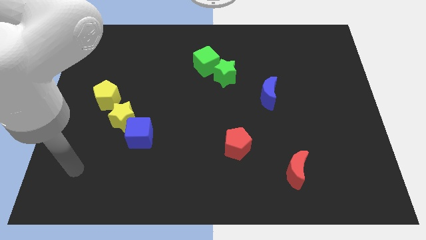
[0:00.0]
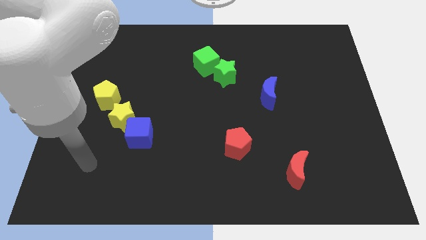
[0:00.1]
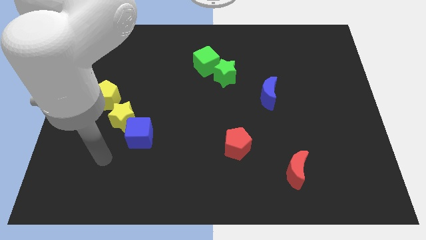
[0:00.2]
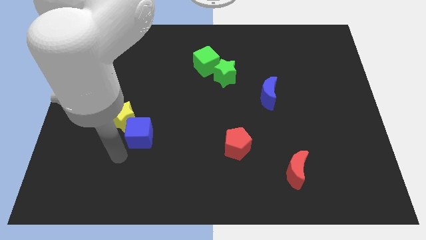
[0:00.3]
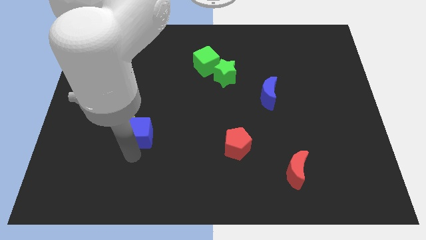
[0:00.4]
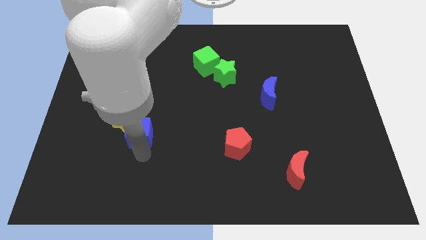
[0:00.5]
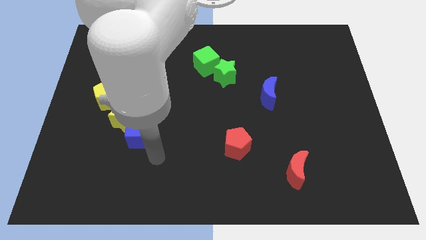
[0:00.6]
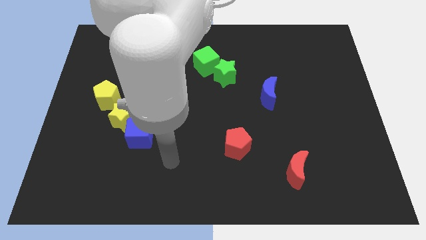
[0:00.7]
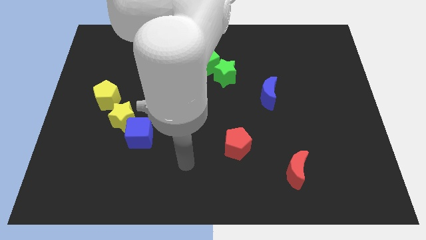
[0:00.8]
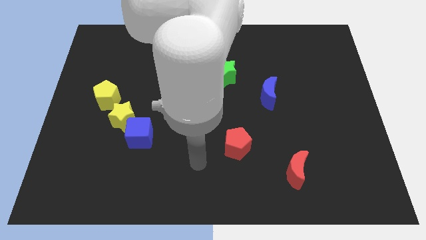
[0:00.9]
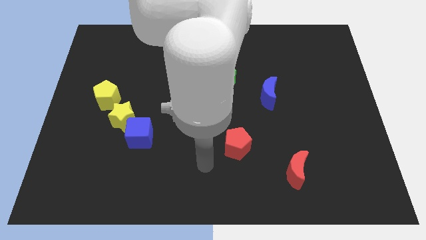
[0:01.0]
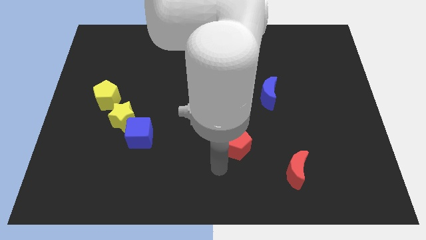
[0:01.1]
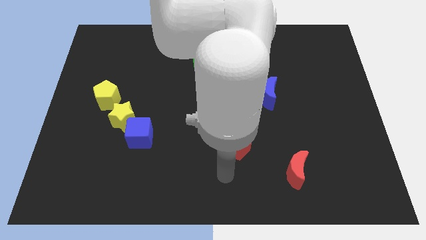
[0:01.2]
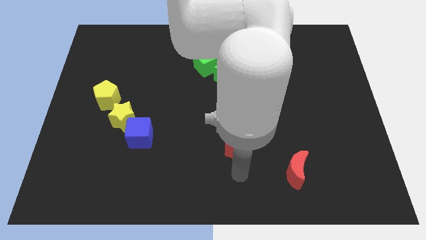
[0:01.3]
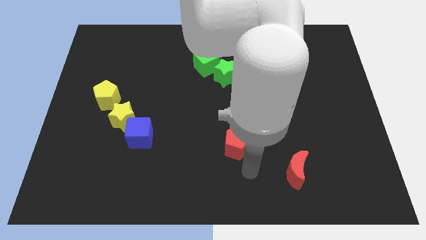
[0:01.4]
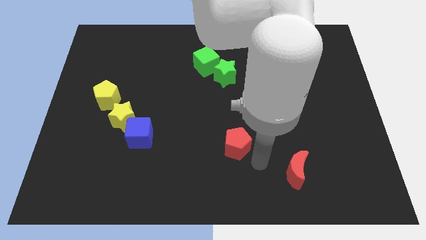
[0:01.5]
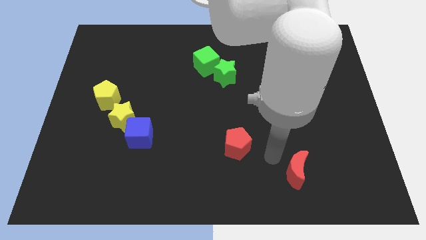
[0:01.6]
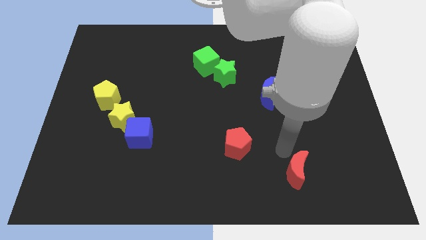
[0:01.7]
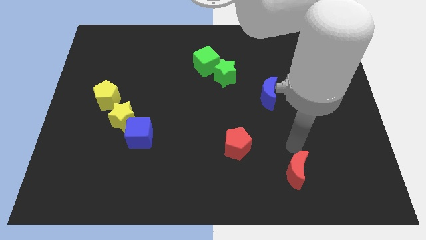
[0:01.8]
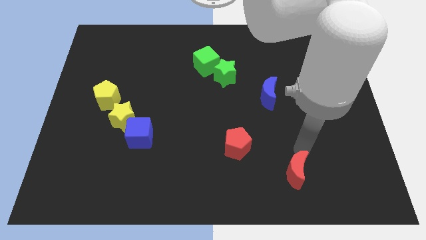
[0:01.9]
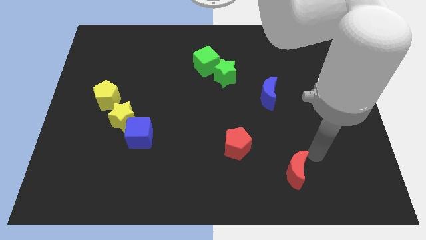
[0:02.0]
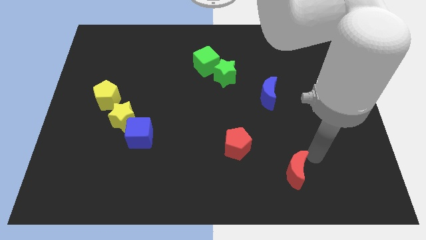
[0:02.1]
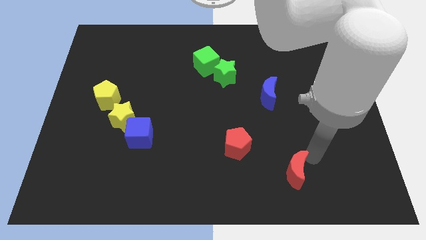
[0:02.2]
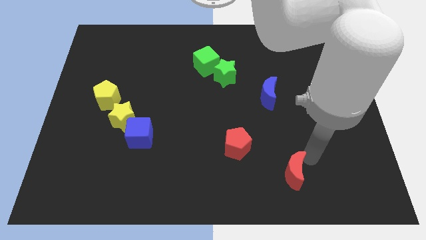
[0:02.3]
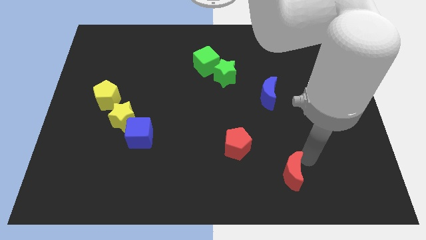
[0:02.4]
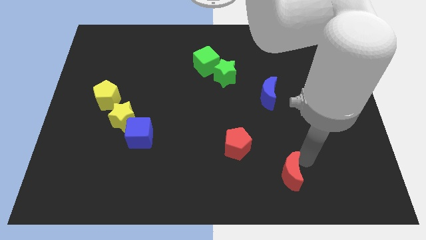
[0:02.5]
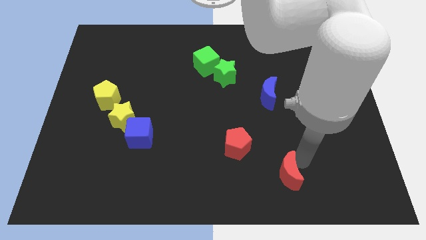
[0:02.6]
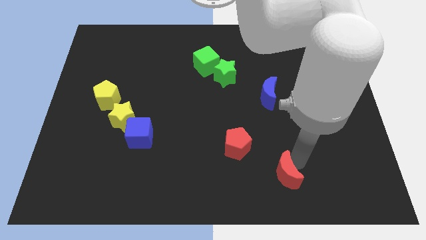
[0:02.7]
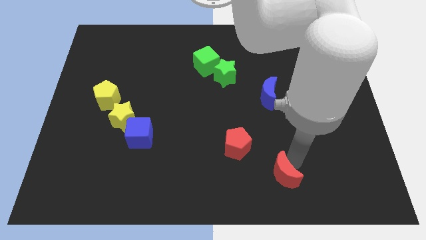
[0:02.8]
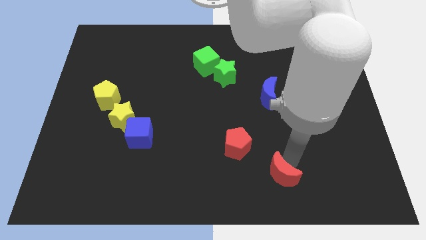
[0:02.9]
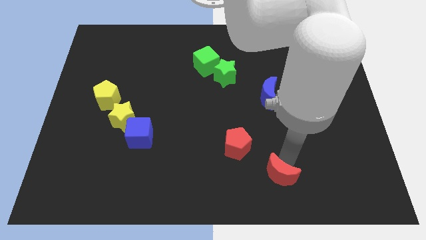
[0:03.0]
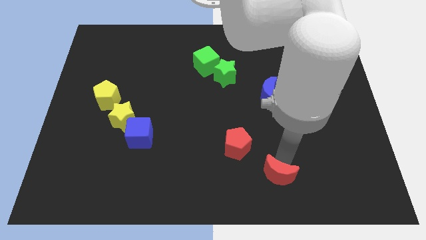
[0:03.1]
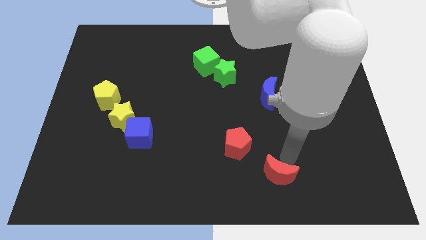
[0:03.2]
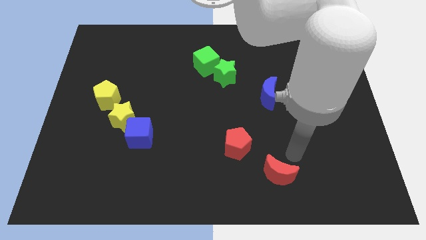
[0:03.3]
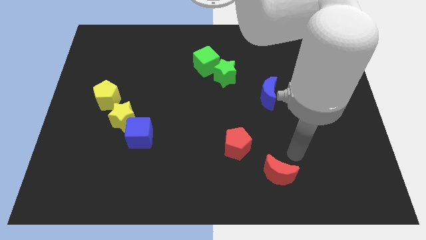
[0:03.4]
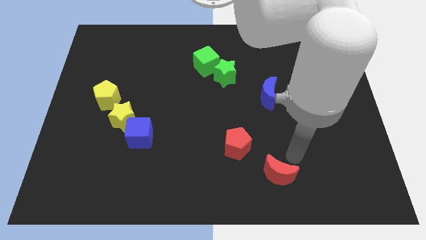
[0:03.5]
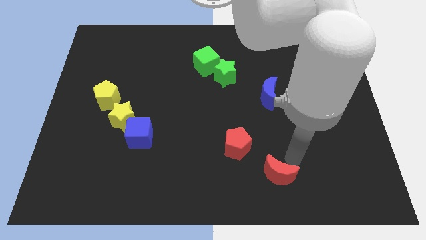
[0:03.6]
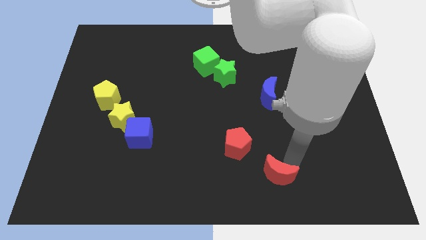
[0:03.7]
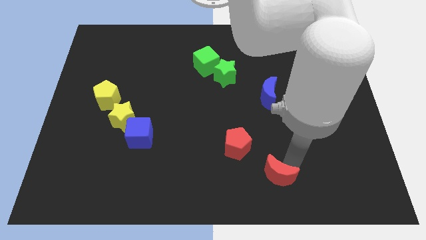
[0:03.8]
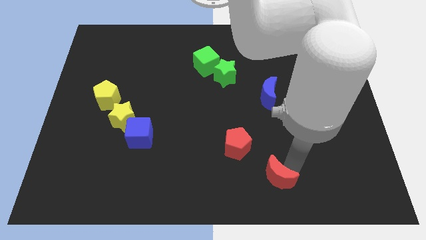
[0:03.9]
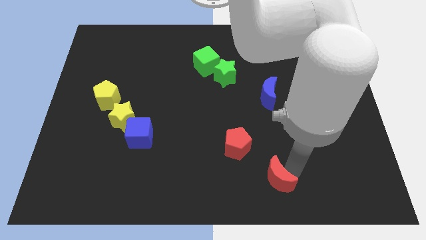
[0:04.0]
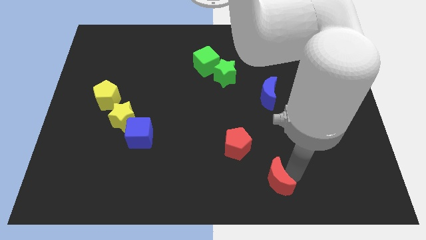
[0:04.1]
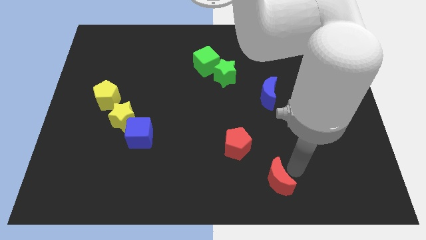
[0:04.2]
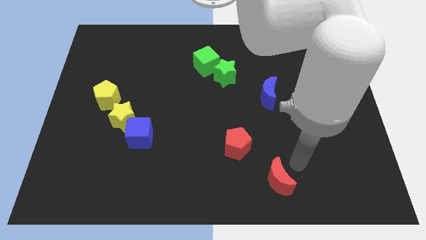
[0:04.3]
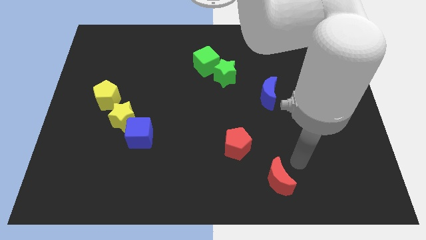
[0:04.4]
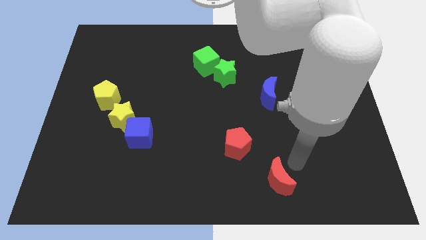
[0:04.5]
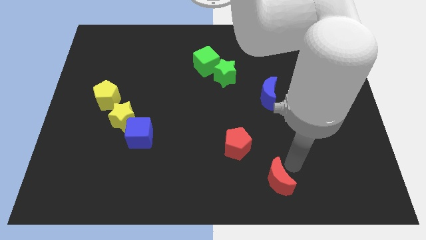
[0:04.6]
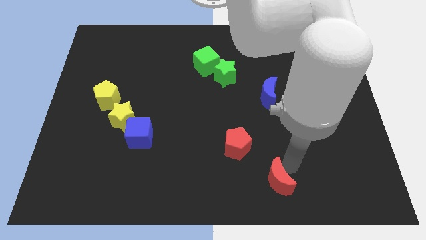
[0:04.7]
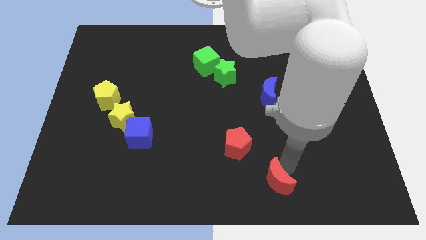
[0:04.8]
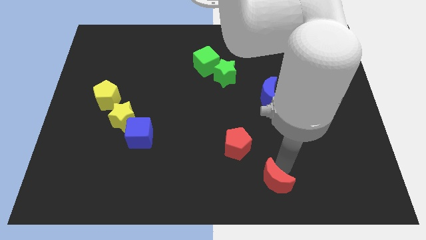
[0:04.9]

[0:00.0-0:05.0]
put the red moon to the bottom side

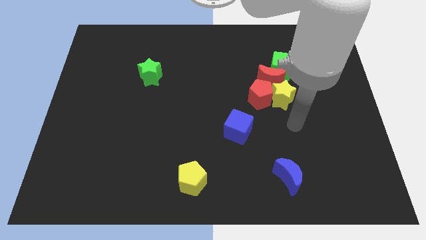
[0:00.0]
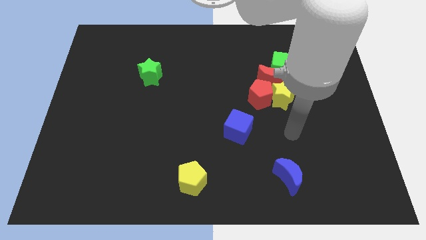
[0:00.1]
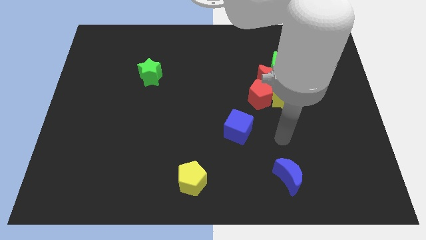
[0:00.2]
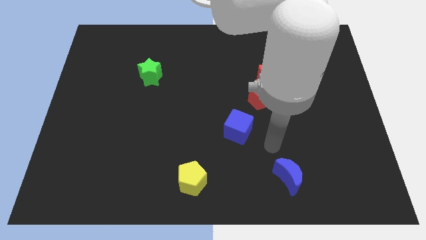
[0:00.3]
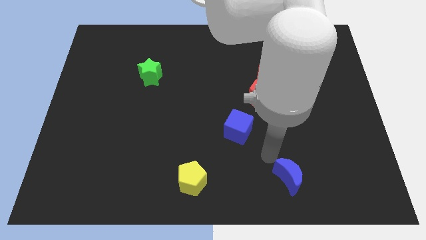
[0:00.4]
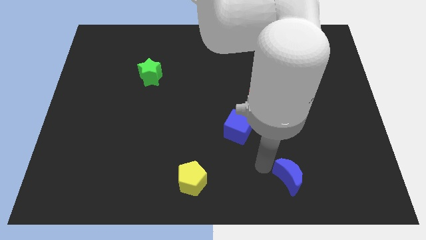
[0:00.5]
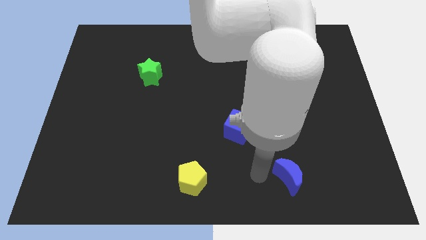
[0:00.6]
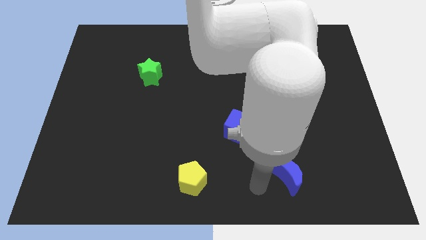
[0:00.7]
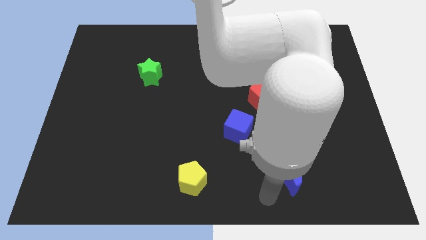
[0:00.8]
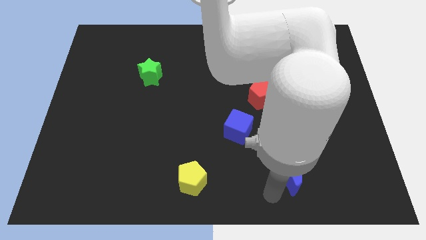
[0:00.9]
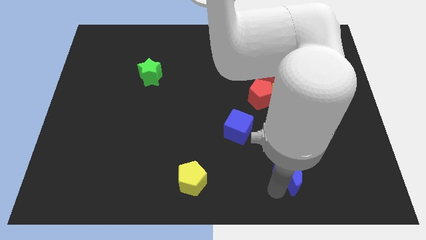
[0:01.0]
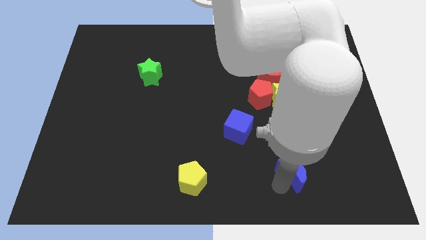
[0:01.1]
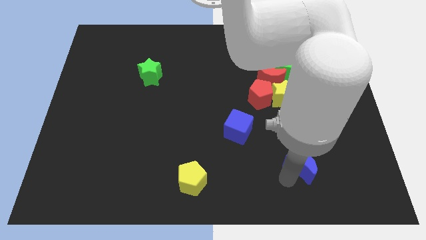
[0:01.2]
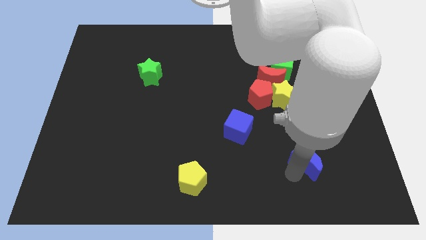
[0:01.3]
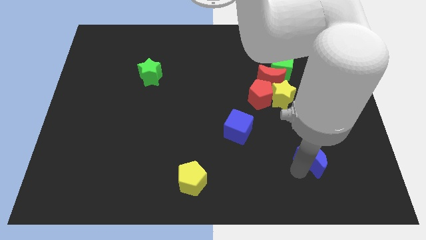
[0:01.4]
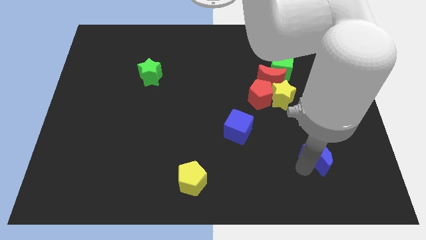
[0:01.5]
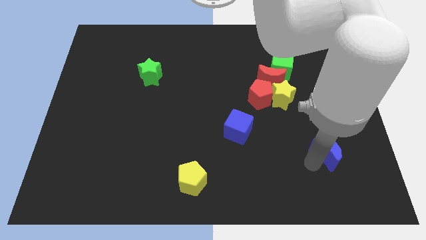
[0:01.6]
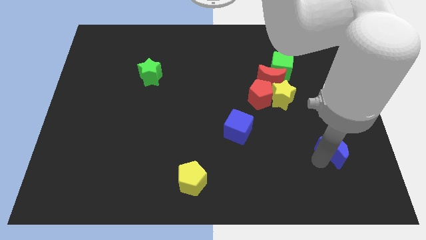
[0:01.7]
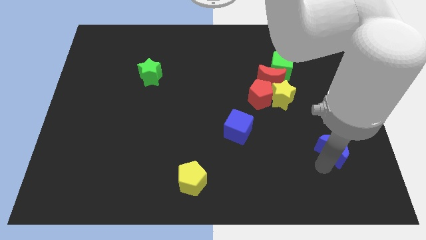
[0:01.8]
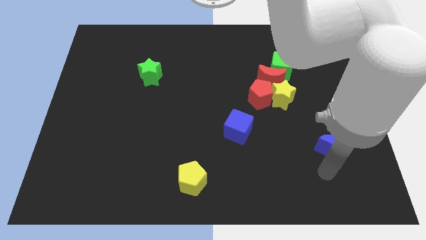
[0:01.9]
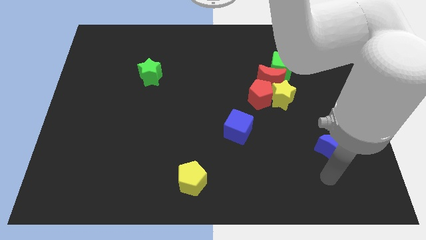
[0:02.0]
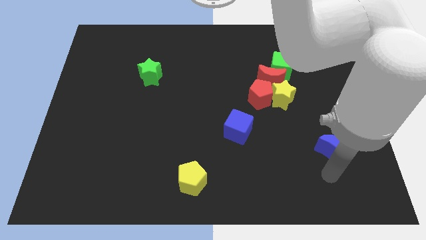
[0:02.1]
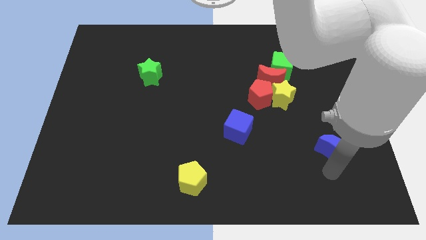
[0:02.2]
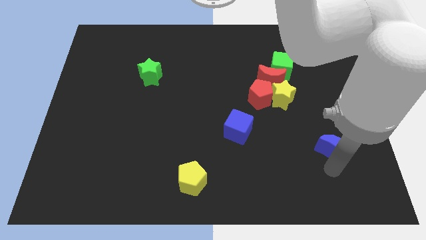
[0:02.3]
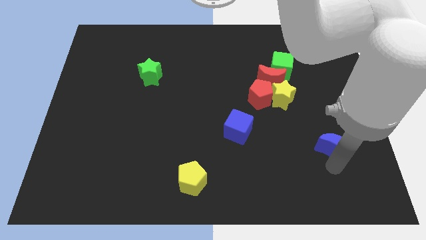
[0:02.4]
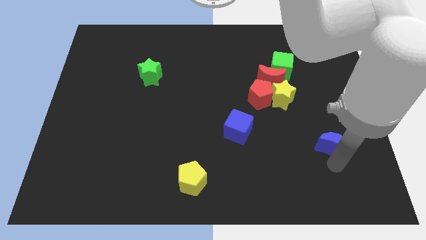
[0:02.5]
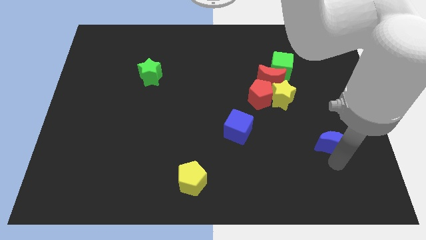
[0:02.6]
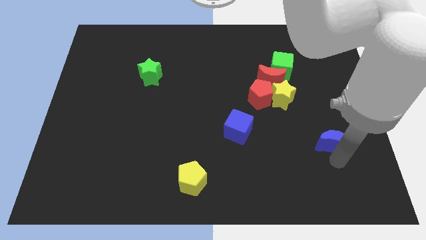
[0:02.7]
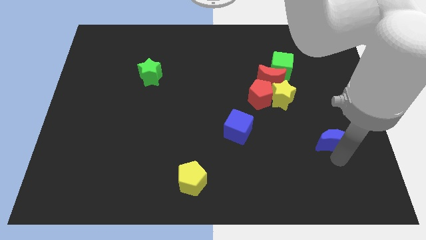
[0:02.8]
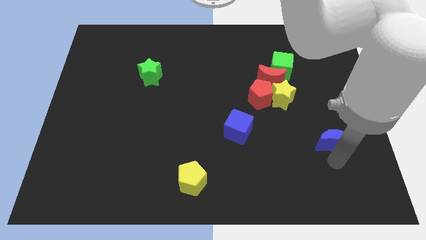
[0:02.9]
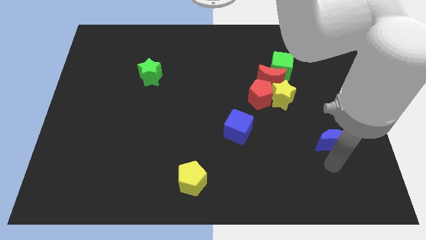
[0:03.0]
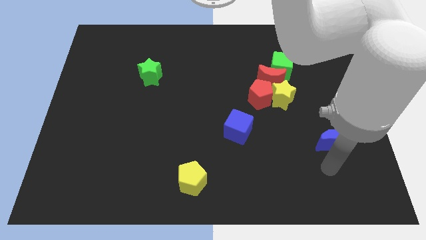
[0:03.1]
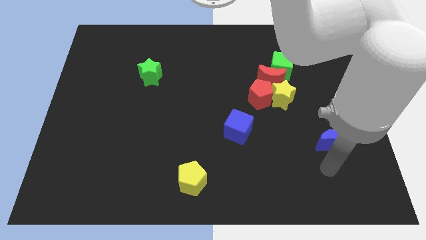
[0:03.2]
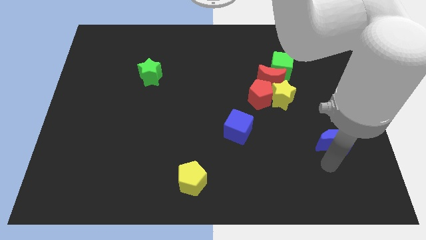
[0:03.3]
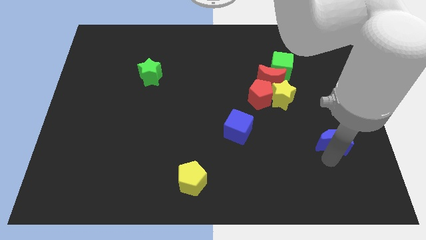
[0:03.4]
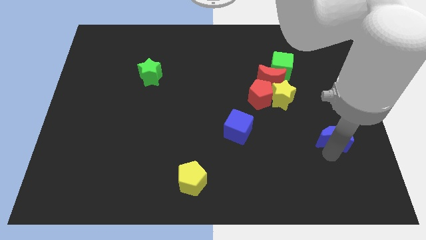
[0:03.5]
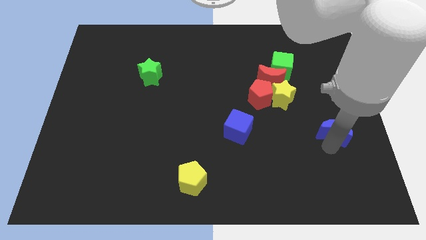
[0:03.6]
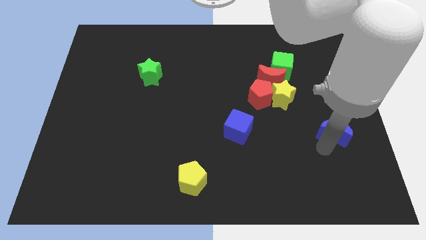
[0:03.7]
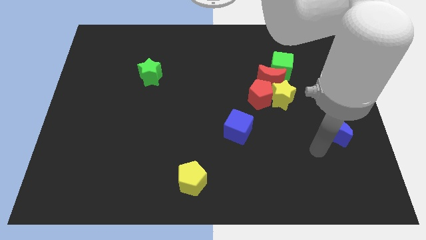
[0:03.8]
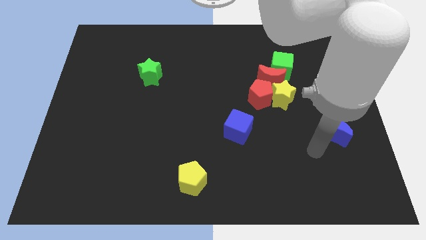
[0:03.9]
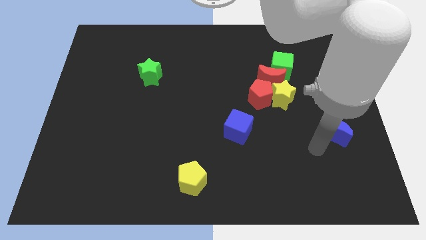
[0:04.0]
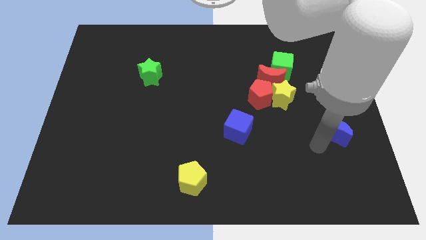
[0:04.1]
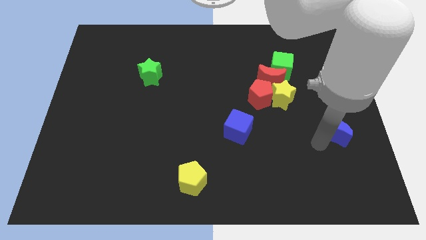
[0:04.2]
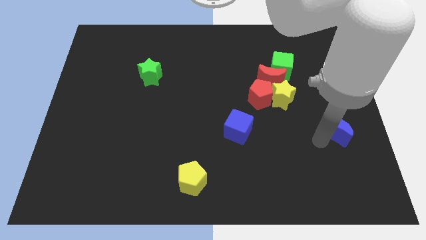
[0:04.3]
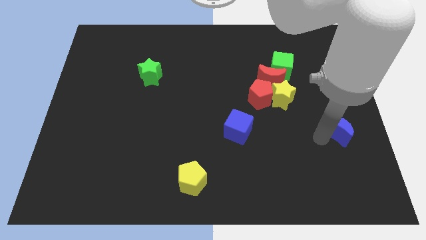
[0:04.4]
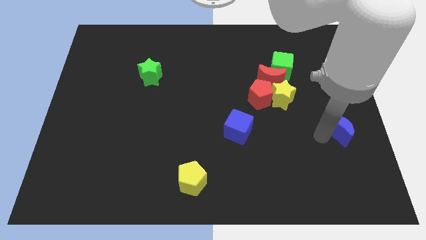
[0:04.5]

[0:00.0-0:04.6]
push the blue moon to the right side
